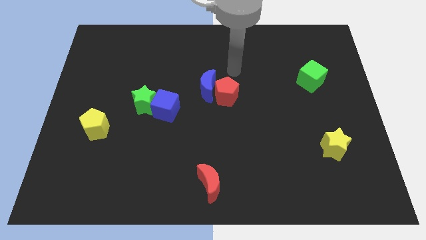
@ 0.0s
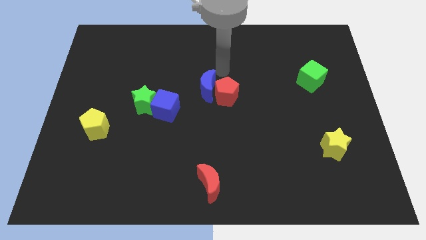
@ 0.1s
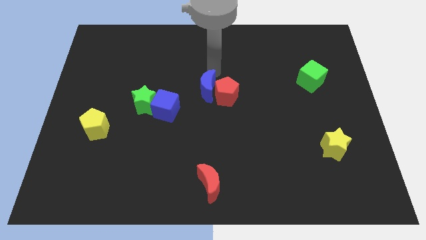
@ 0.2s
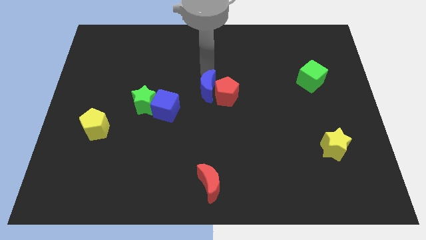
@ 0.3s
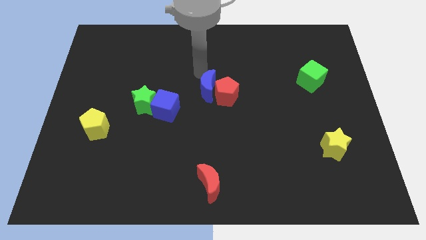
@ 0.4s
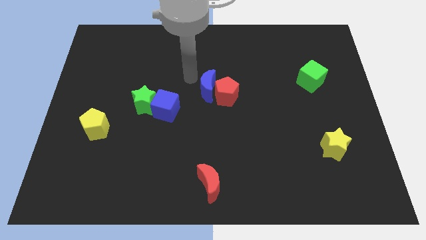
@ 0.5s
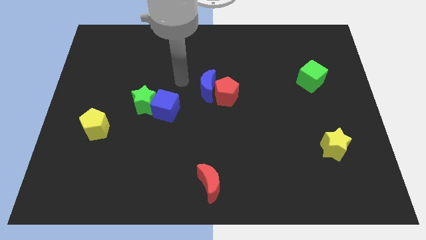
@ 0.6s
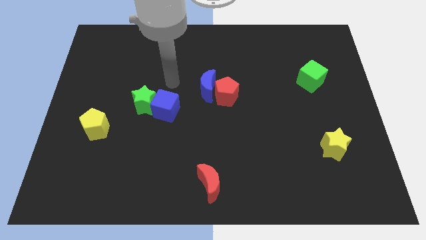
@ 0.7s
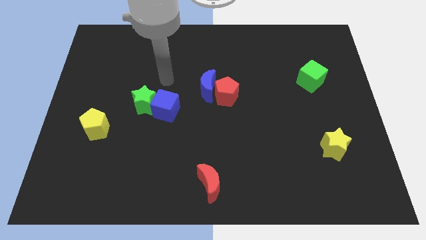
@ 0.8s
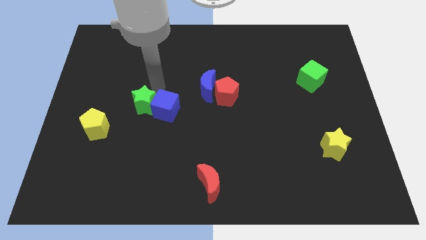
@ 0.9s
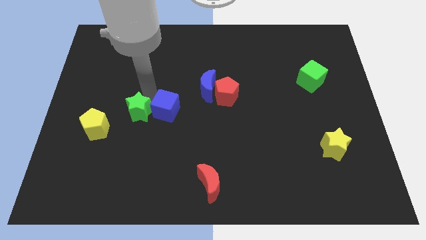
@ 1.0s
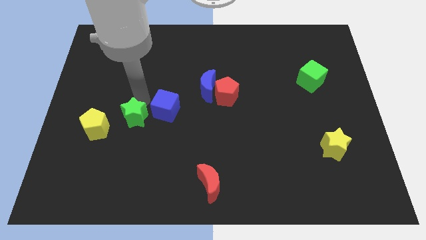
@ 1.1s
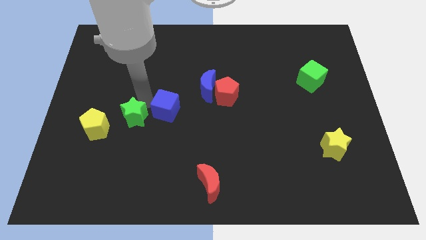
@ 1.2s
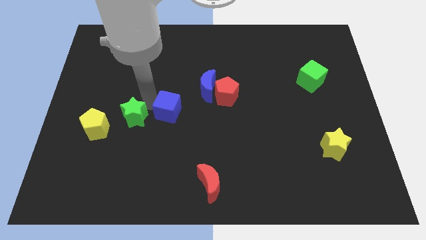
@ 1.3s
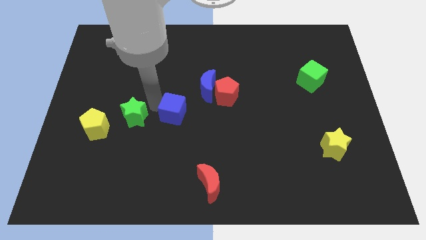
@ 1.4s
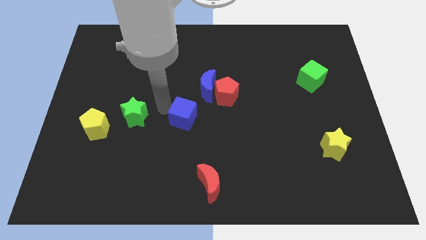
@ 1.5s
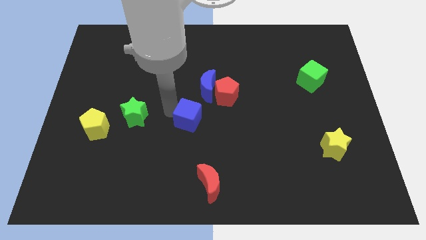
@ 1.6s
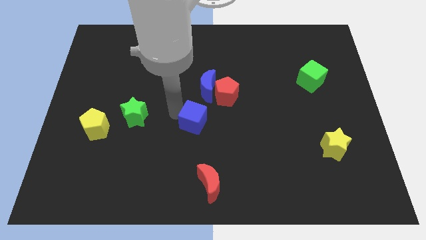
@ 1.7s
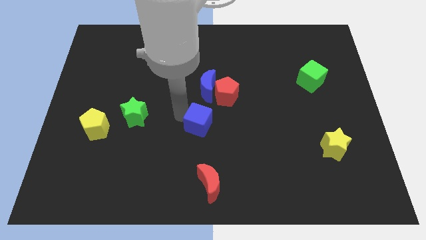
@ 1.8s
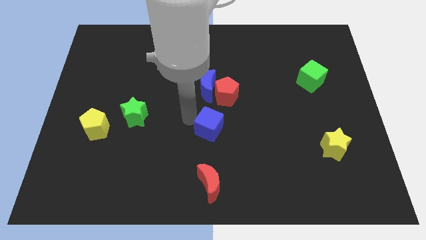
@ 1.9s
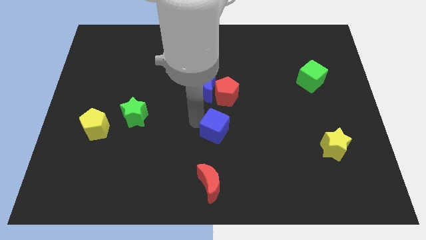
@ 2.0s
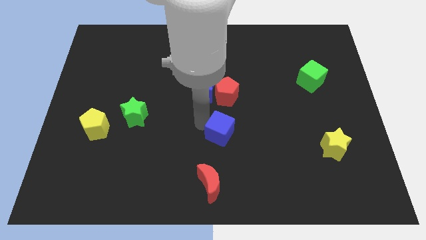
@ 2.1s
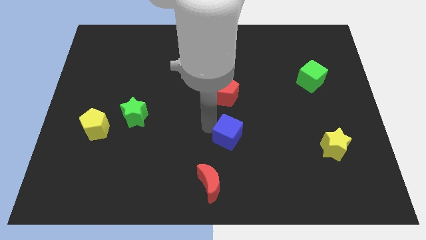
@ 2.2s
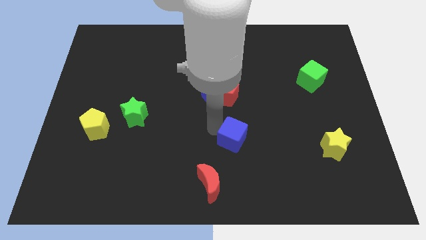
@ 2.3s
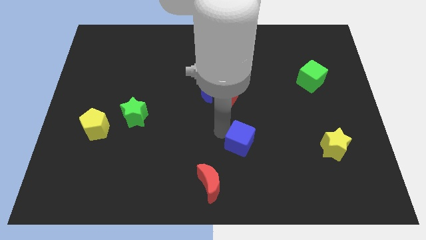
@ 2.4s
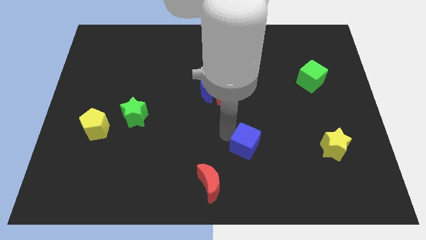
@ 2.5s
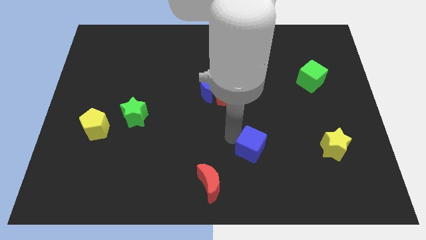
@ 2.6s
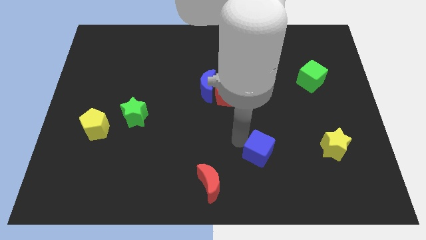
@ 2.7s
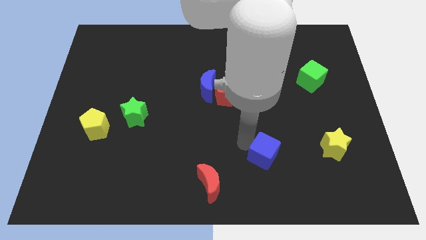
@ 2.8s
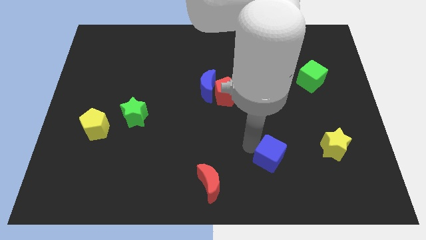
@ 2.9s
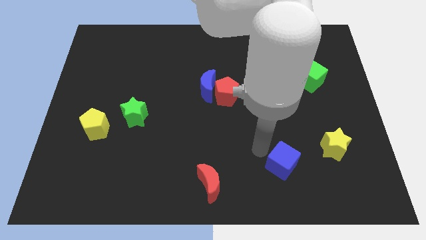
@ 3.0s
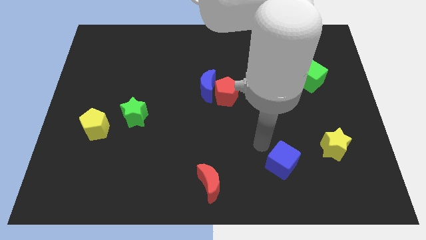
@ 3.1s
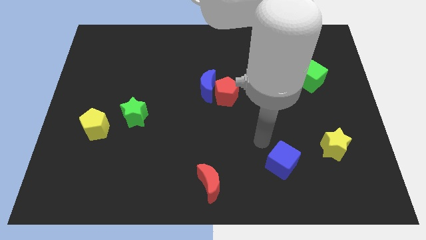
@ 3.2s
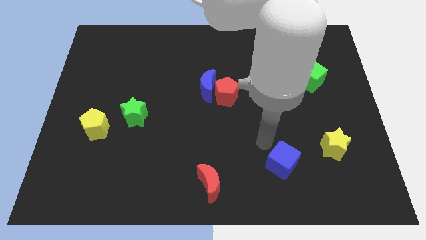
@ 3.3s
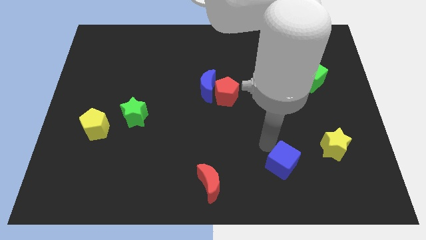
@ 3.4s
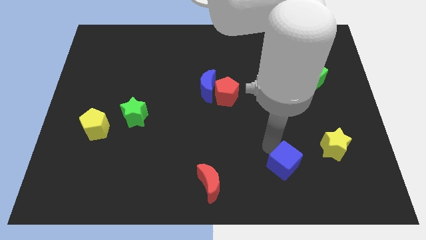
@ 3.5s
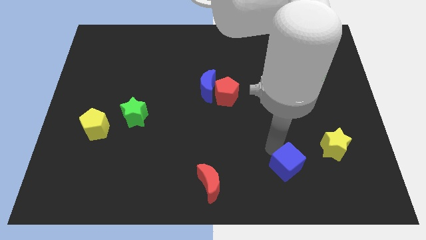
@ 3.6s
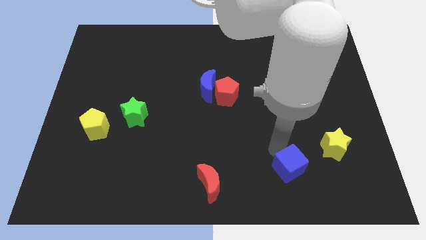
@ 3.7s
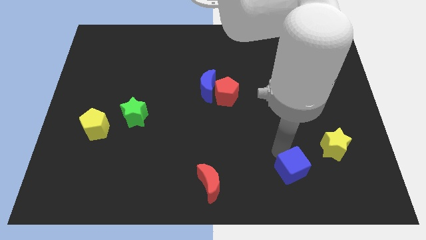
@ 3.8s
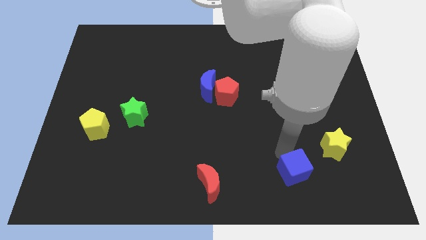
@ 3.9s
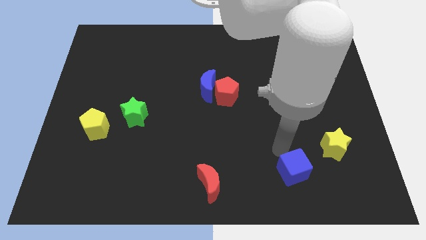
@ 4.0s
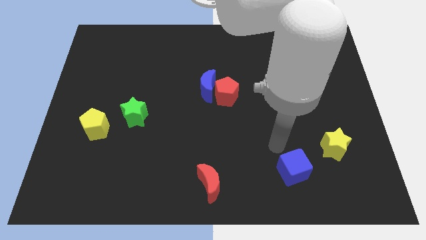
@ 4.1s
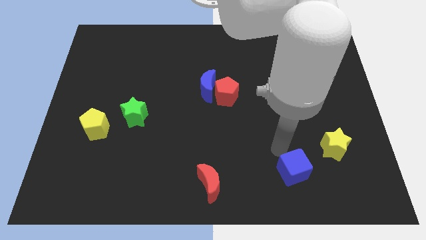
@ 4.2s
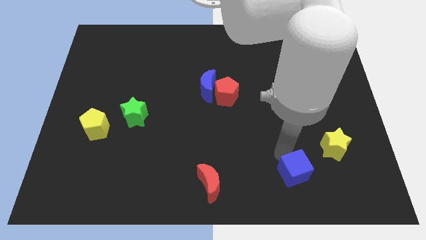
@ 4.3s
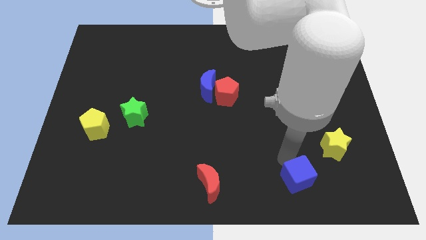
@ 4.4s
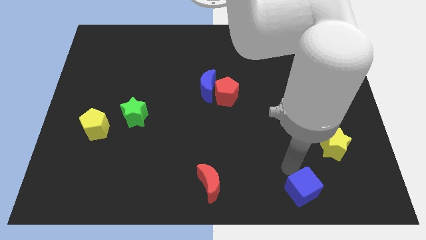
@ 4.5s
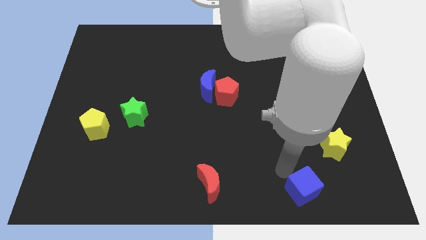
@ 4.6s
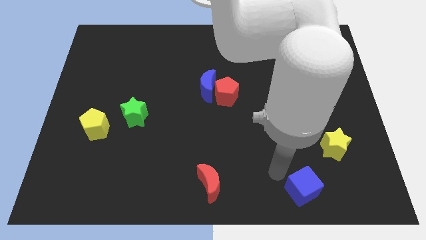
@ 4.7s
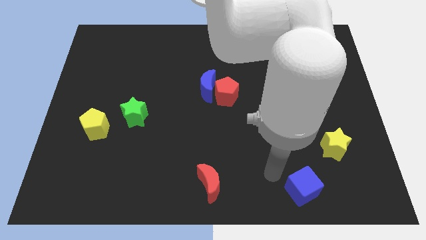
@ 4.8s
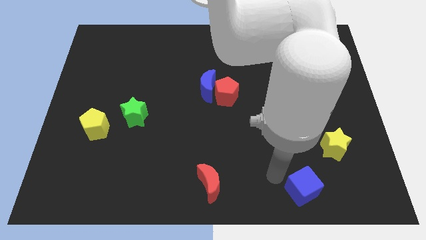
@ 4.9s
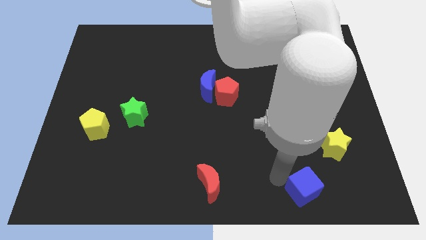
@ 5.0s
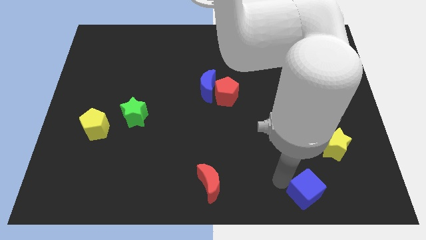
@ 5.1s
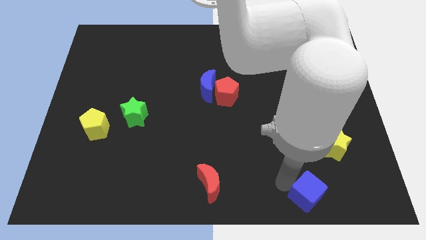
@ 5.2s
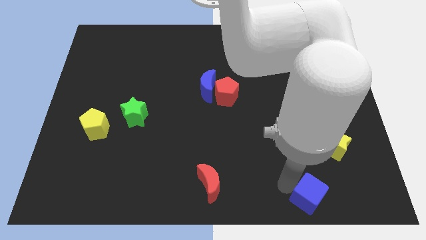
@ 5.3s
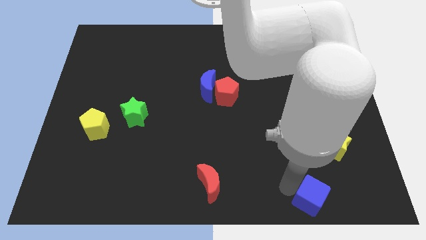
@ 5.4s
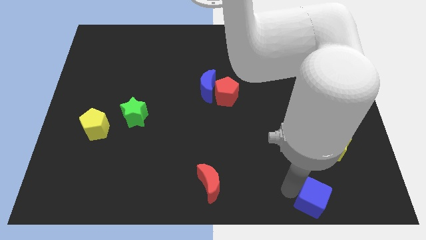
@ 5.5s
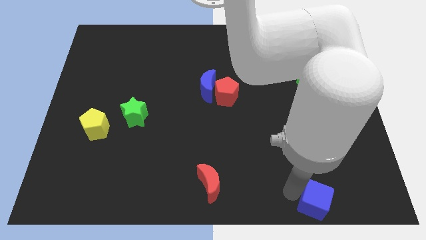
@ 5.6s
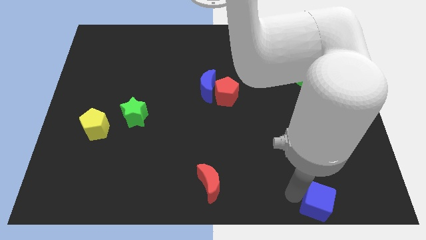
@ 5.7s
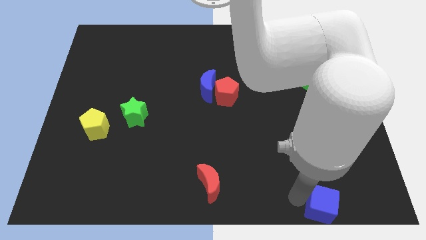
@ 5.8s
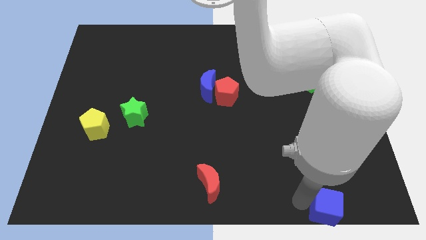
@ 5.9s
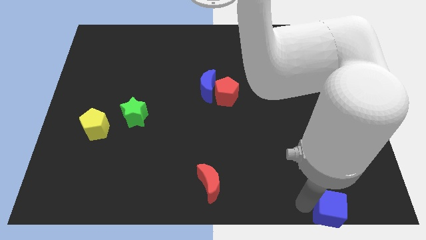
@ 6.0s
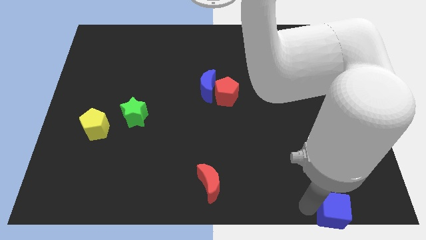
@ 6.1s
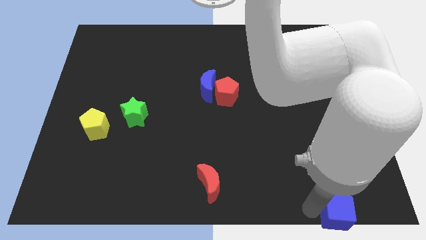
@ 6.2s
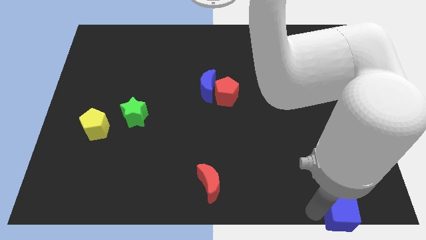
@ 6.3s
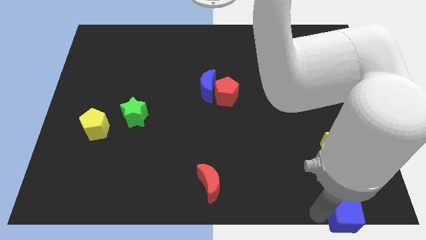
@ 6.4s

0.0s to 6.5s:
put the blue cube to the lower right corner
